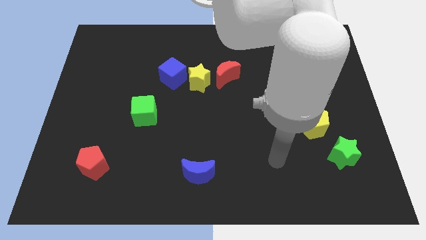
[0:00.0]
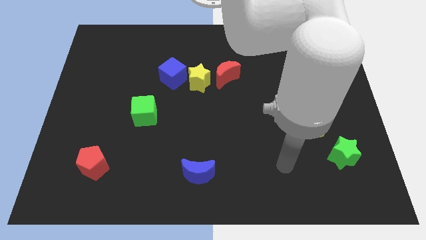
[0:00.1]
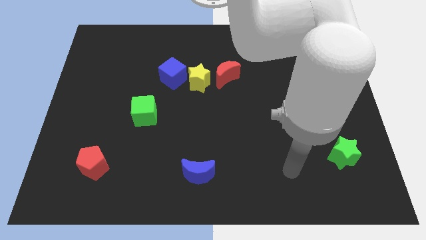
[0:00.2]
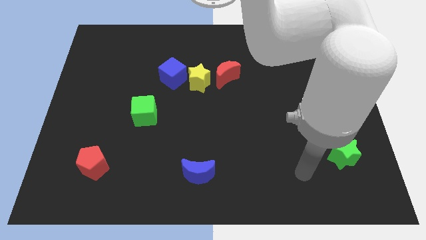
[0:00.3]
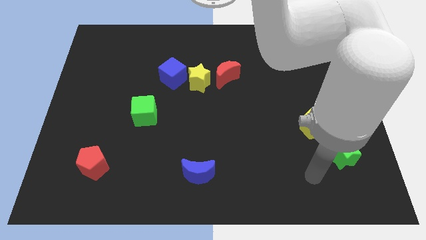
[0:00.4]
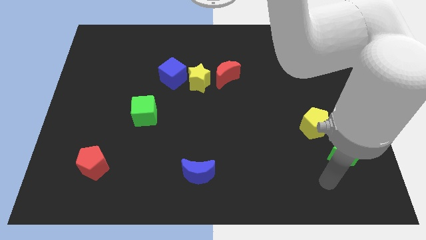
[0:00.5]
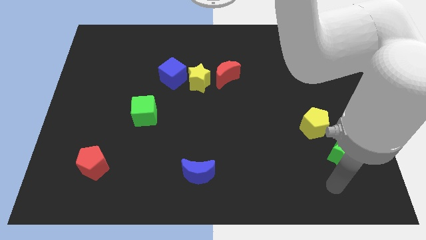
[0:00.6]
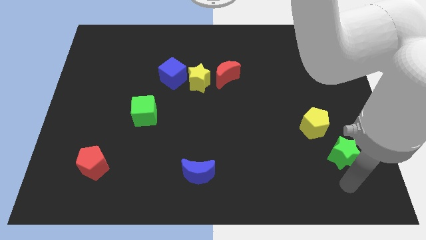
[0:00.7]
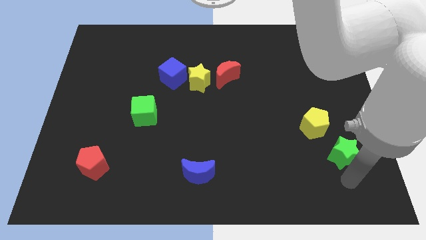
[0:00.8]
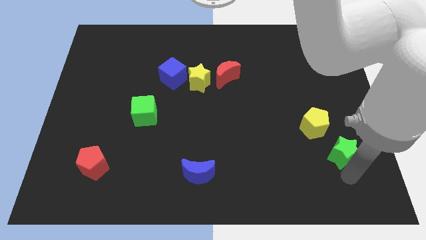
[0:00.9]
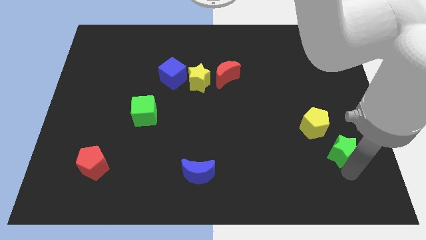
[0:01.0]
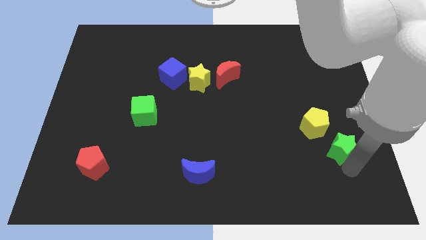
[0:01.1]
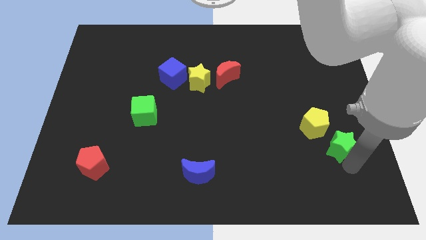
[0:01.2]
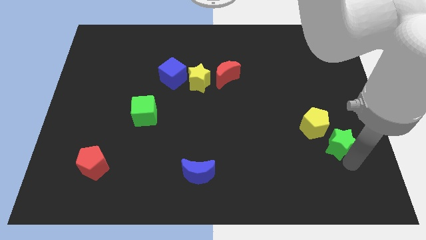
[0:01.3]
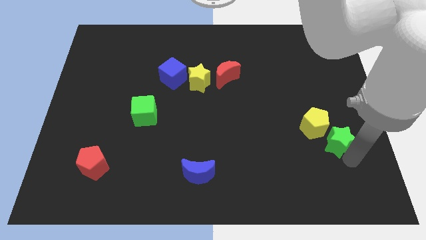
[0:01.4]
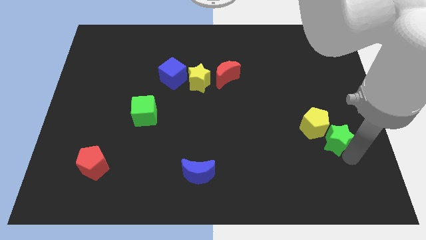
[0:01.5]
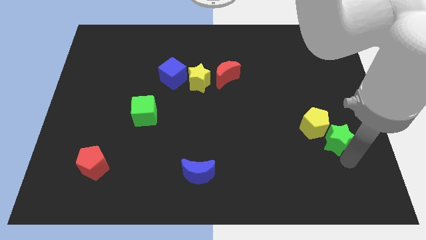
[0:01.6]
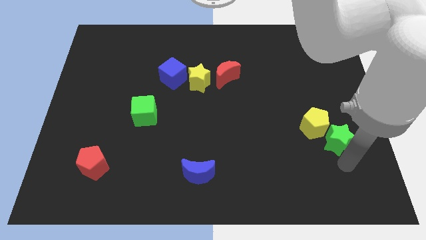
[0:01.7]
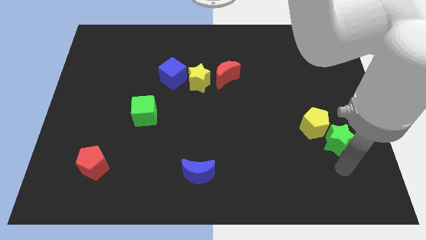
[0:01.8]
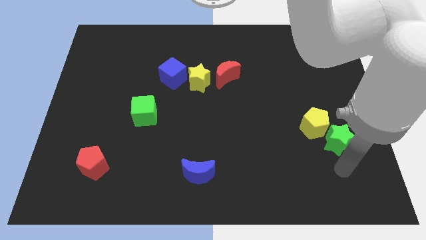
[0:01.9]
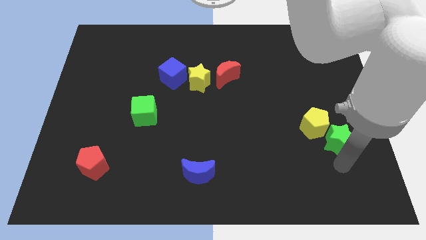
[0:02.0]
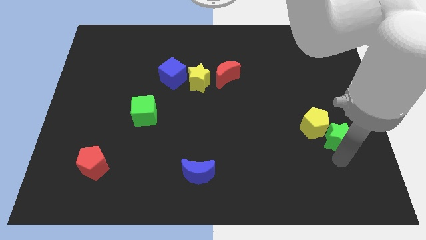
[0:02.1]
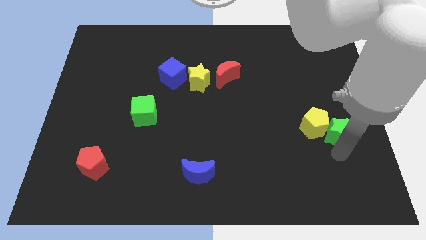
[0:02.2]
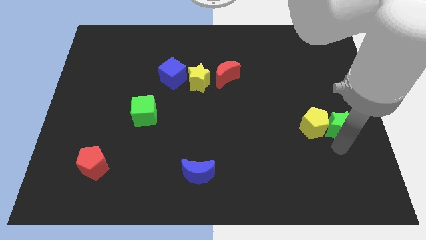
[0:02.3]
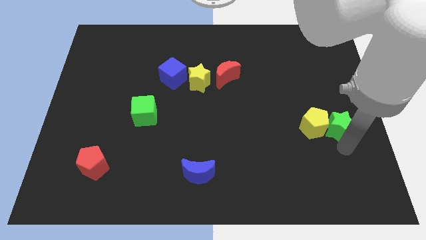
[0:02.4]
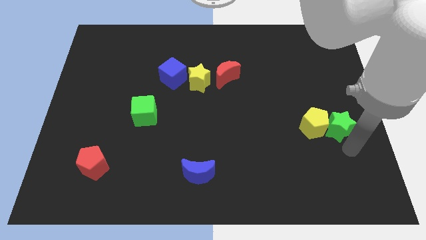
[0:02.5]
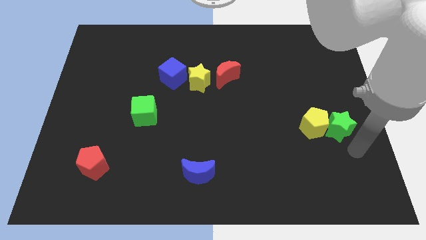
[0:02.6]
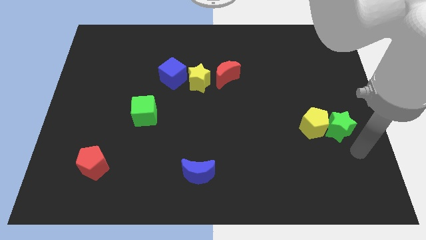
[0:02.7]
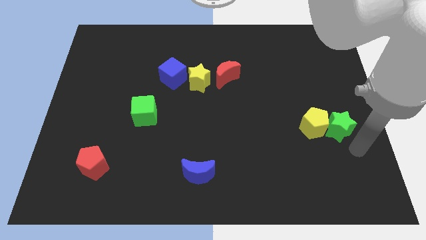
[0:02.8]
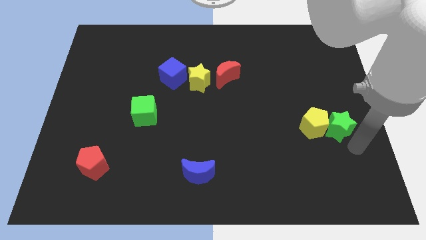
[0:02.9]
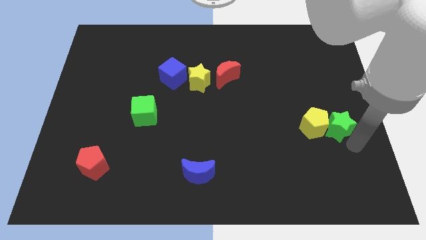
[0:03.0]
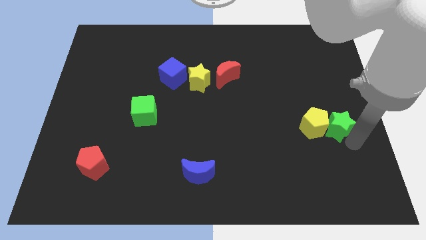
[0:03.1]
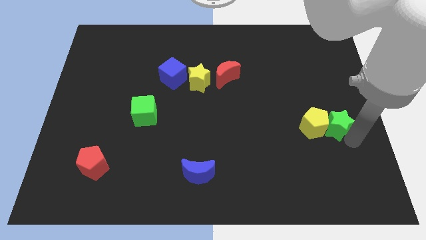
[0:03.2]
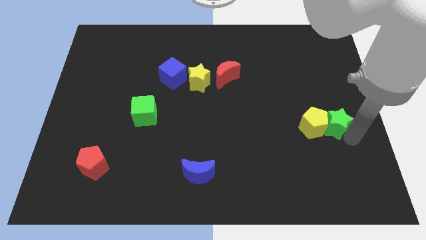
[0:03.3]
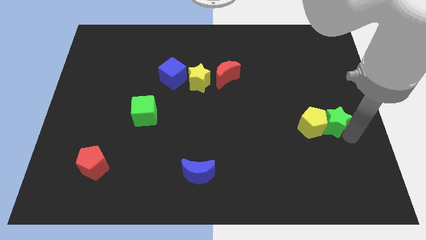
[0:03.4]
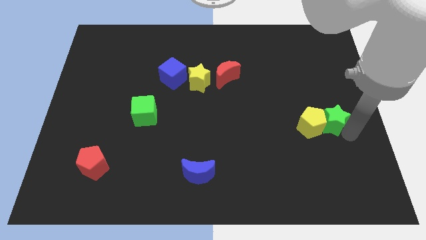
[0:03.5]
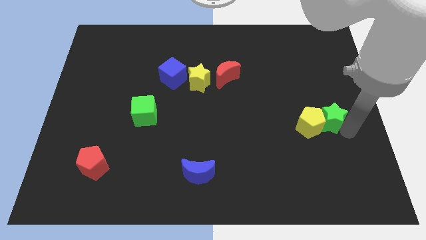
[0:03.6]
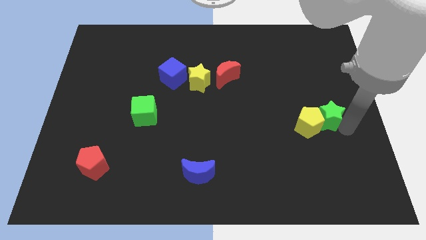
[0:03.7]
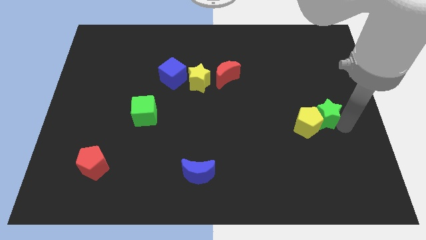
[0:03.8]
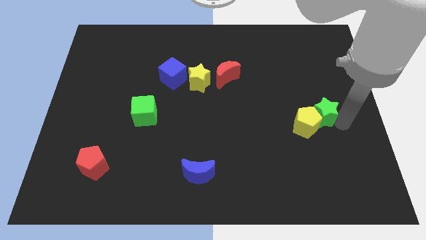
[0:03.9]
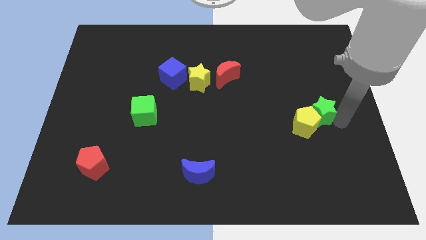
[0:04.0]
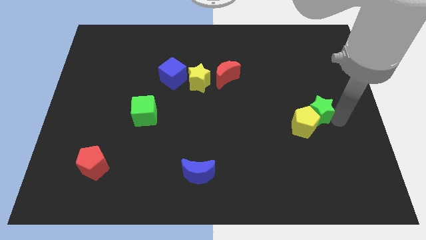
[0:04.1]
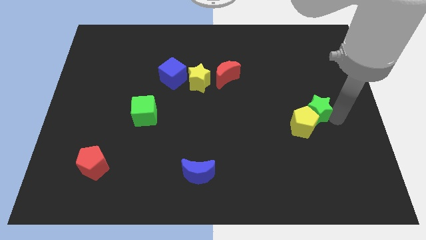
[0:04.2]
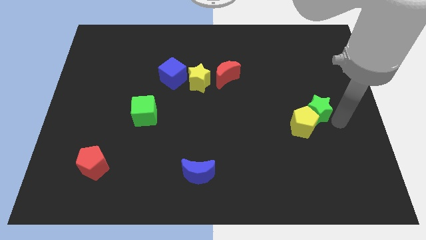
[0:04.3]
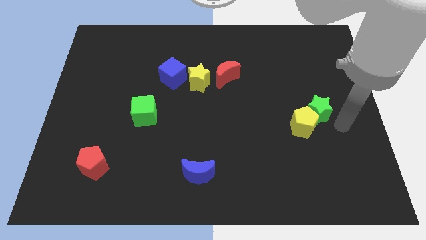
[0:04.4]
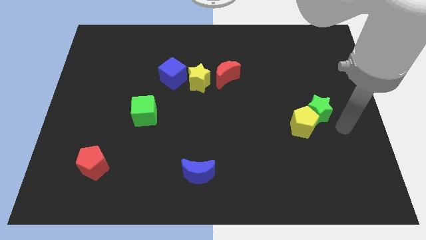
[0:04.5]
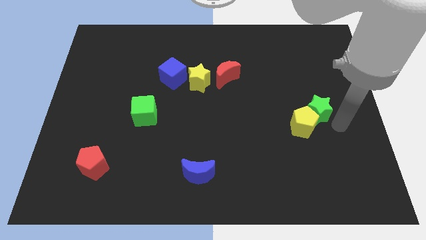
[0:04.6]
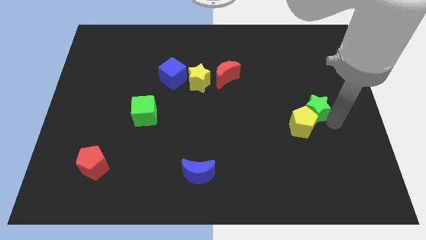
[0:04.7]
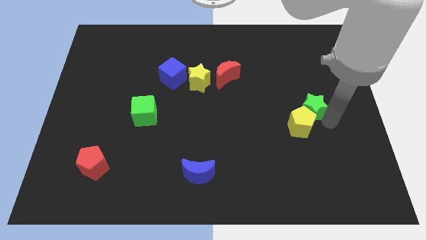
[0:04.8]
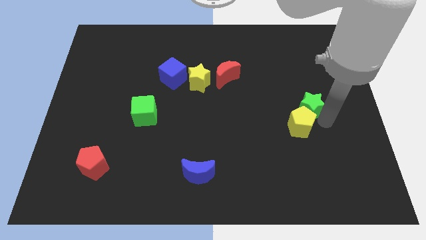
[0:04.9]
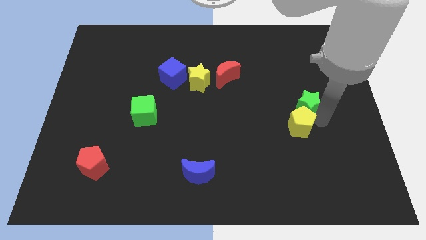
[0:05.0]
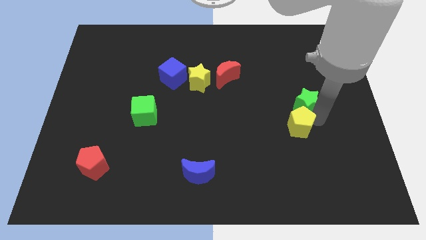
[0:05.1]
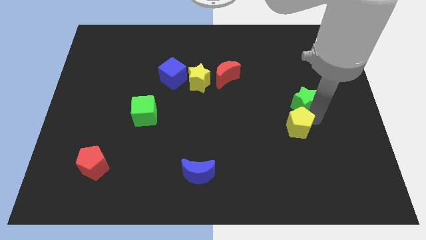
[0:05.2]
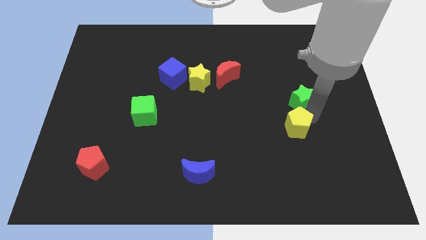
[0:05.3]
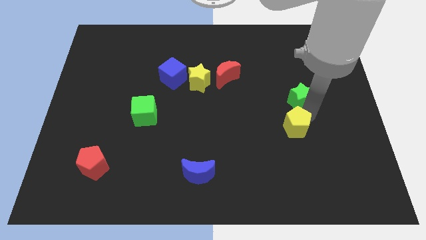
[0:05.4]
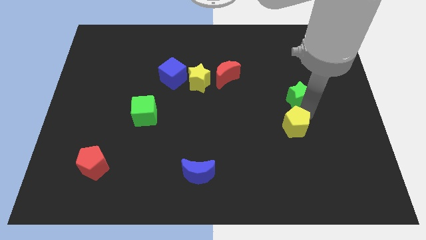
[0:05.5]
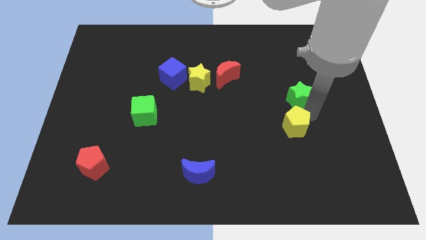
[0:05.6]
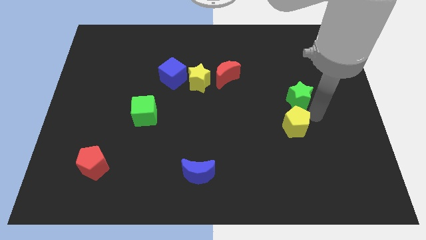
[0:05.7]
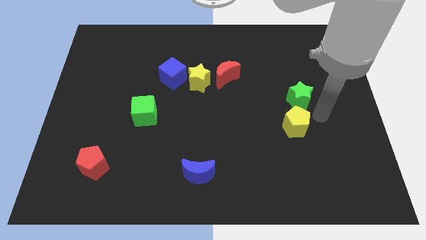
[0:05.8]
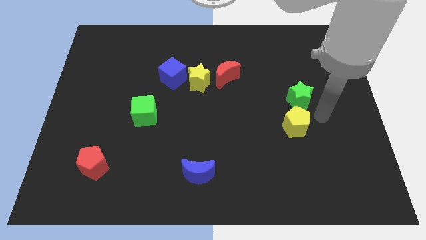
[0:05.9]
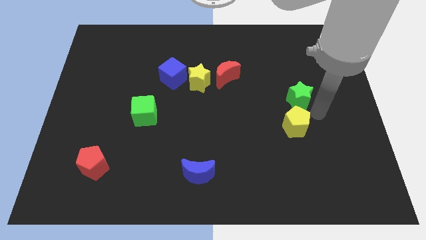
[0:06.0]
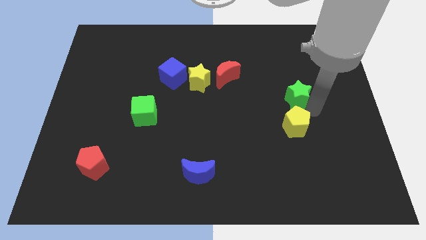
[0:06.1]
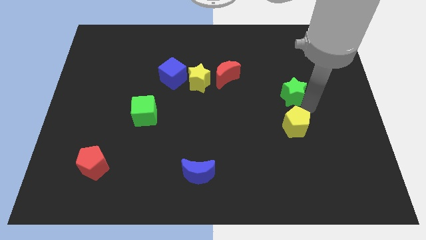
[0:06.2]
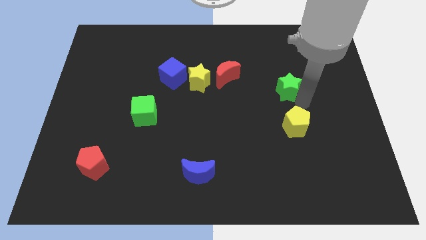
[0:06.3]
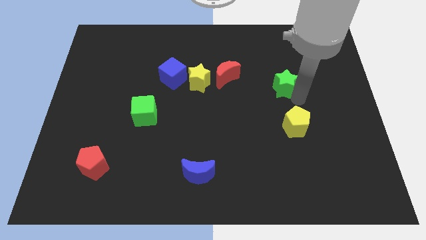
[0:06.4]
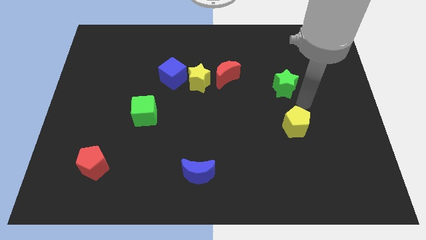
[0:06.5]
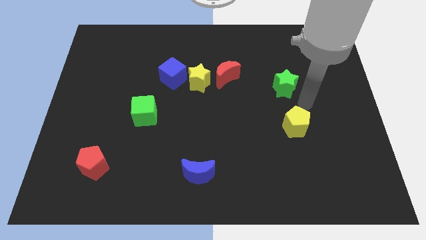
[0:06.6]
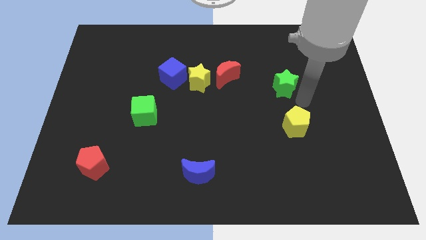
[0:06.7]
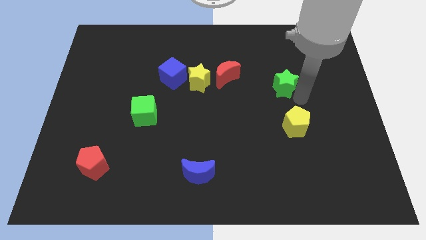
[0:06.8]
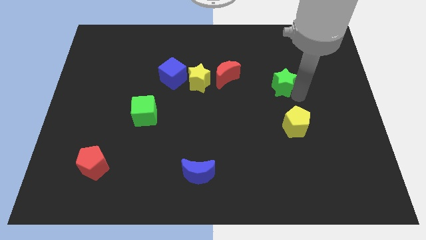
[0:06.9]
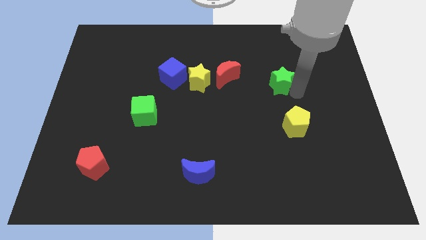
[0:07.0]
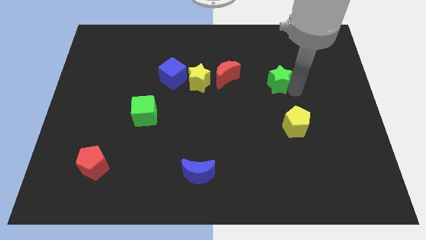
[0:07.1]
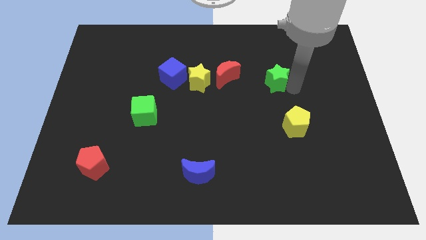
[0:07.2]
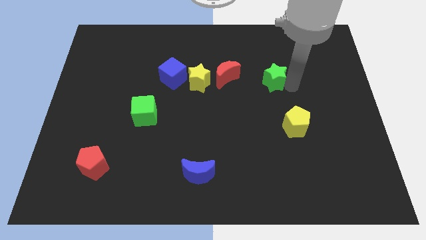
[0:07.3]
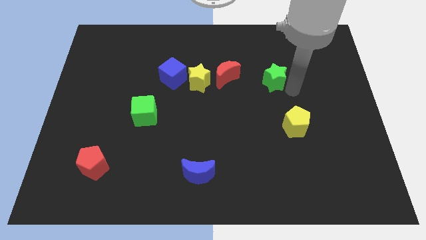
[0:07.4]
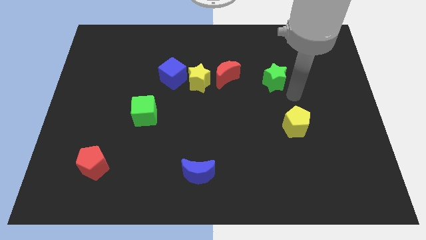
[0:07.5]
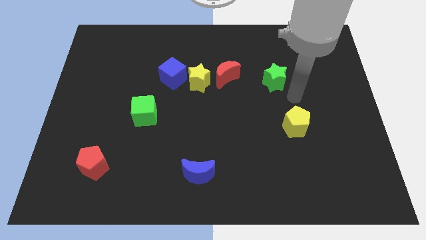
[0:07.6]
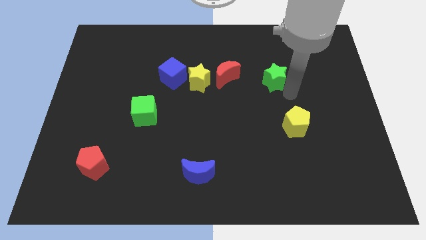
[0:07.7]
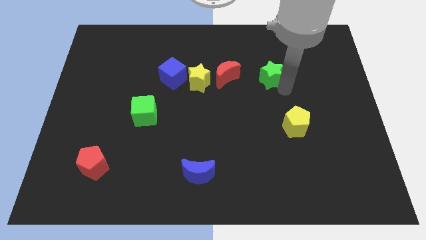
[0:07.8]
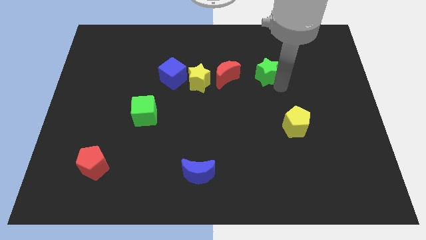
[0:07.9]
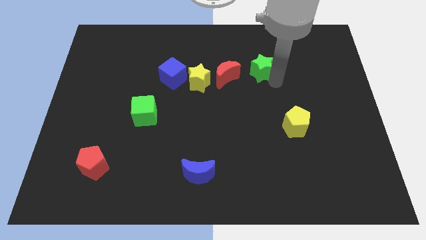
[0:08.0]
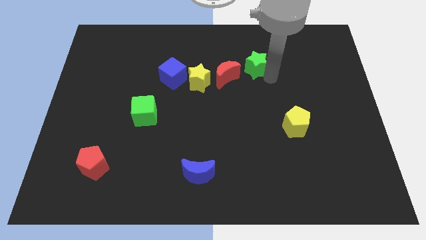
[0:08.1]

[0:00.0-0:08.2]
move the green star to the top right of the red moon
